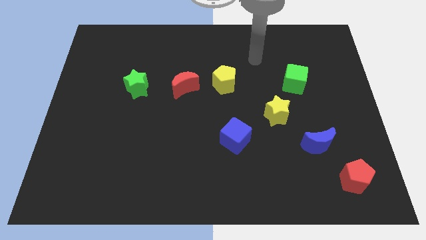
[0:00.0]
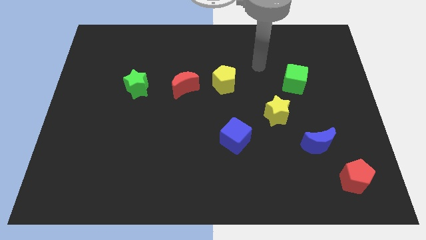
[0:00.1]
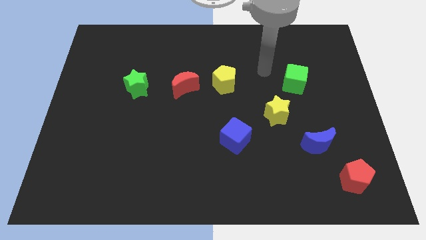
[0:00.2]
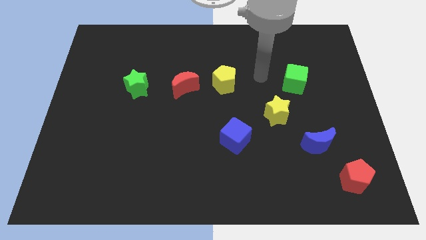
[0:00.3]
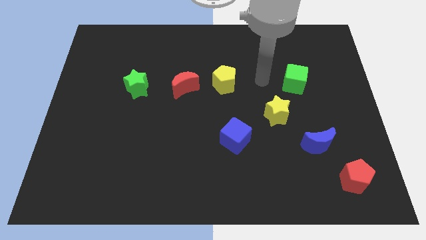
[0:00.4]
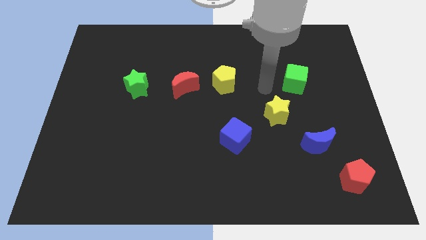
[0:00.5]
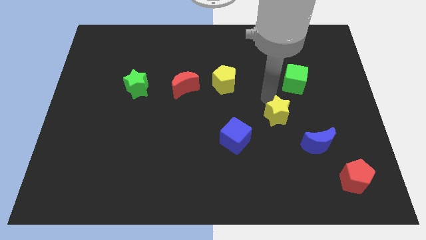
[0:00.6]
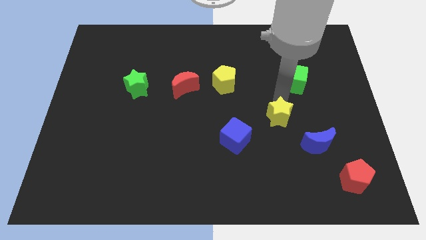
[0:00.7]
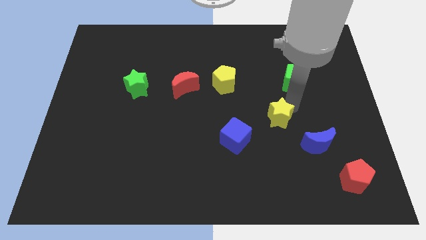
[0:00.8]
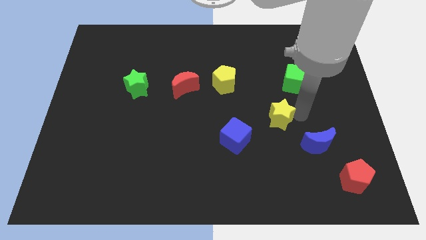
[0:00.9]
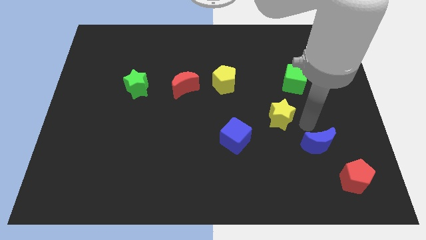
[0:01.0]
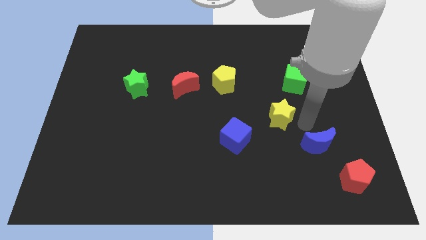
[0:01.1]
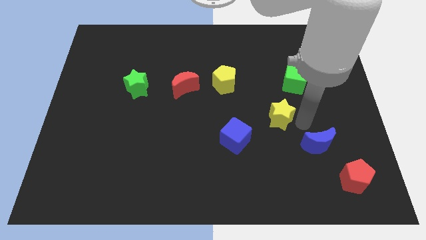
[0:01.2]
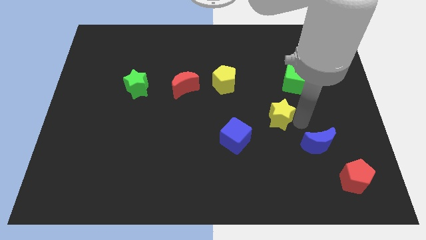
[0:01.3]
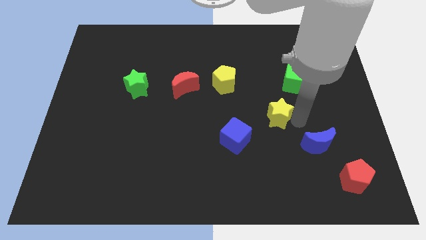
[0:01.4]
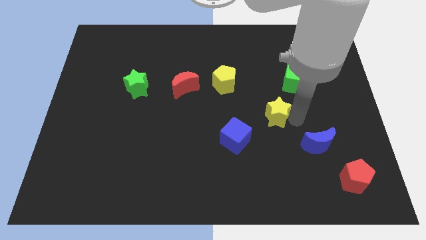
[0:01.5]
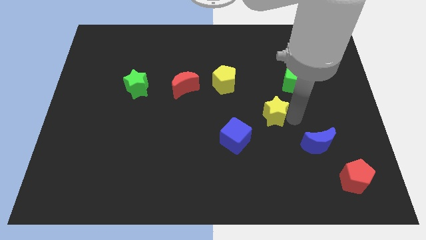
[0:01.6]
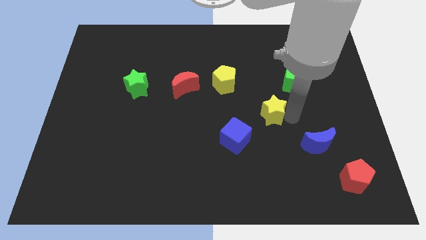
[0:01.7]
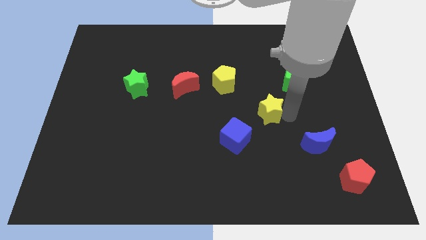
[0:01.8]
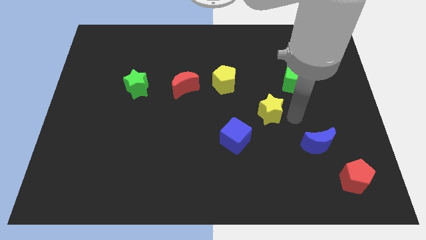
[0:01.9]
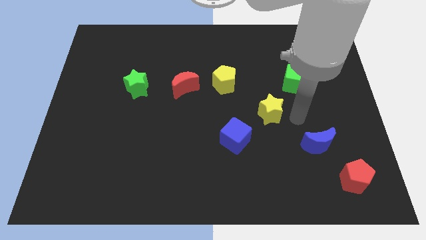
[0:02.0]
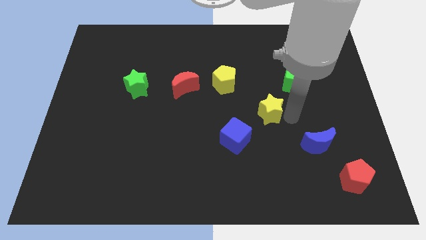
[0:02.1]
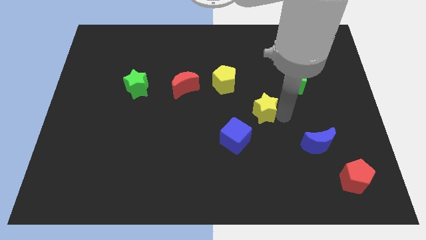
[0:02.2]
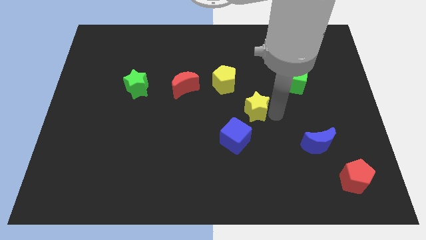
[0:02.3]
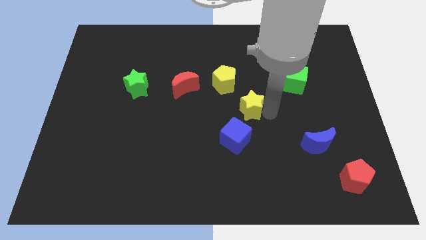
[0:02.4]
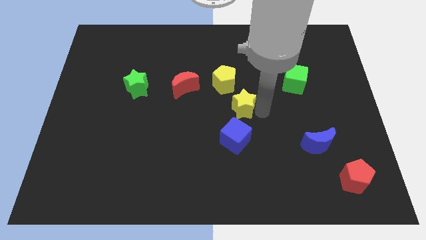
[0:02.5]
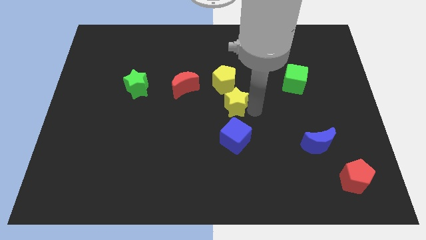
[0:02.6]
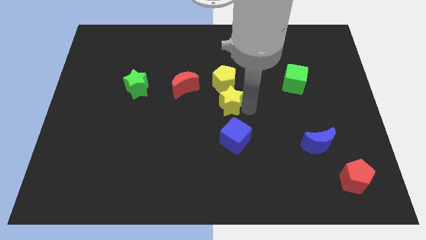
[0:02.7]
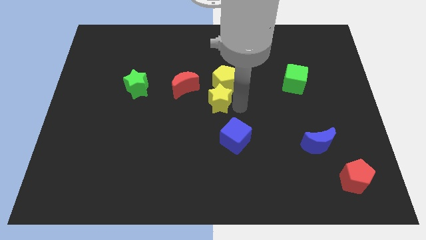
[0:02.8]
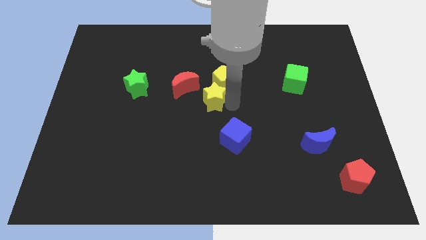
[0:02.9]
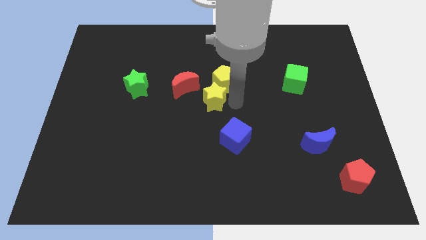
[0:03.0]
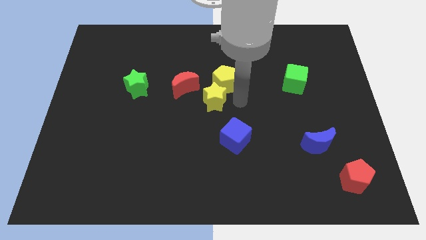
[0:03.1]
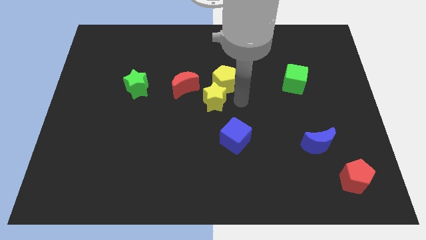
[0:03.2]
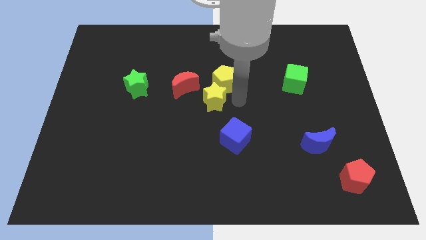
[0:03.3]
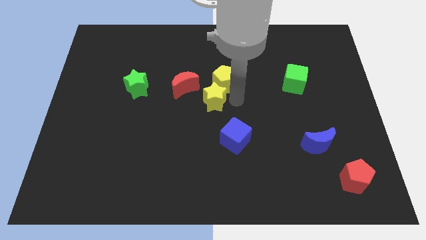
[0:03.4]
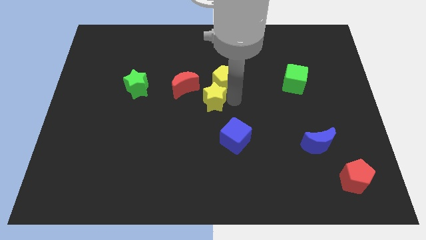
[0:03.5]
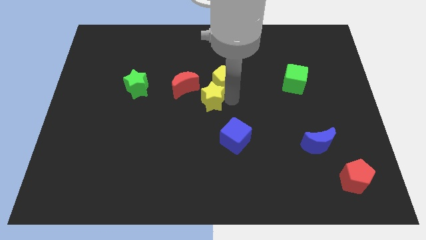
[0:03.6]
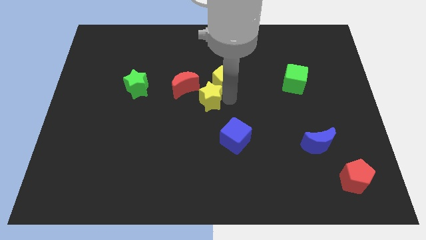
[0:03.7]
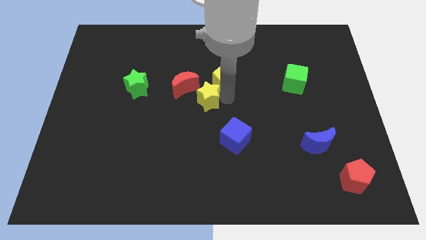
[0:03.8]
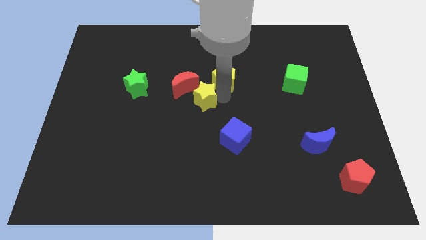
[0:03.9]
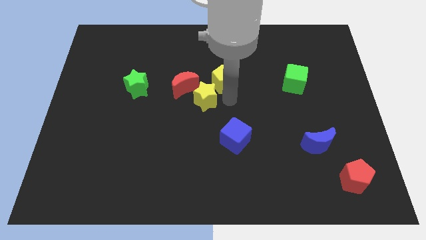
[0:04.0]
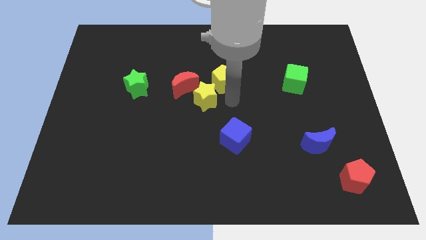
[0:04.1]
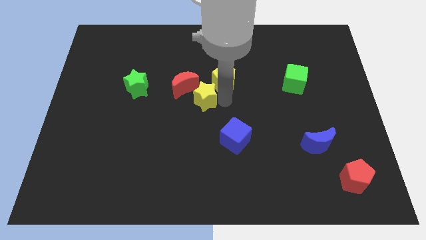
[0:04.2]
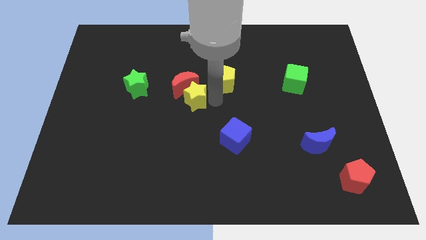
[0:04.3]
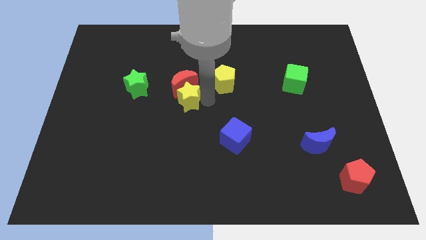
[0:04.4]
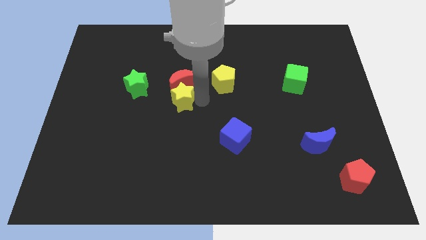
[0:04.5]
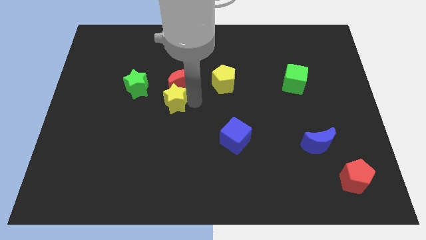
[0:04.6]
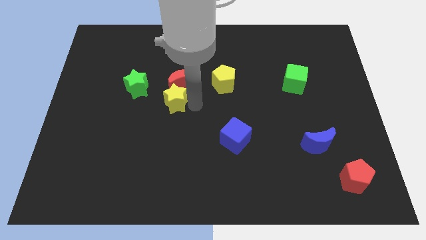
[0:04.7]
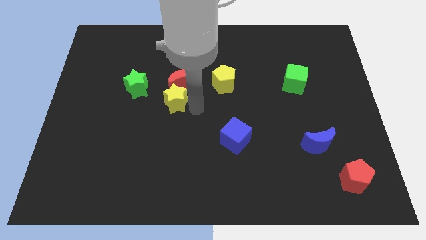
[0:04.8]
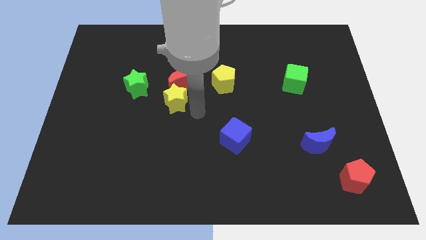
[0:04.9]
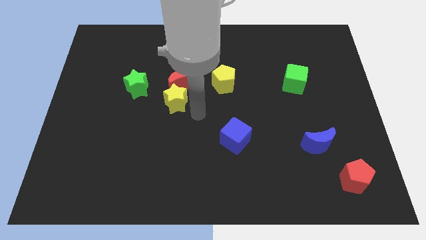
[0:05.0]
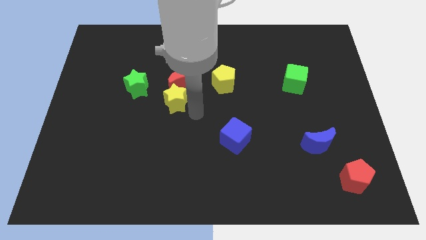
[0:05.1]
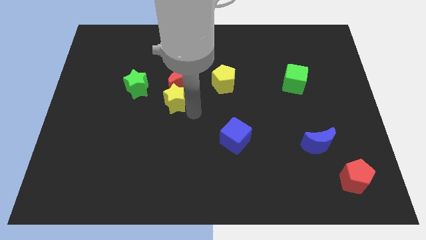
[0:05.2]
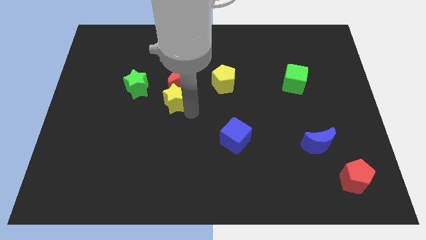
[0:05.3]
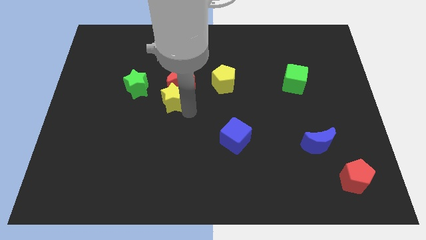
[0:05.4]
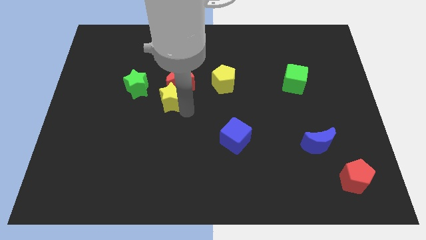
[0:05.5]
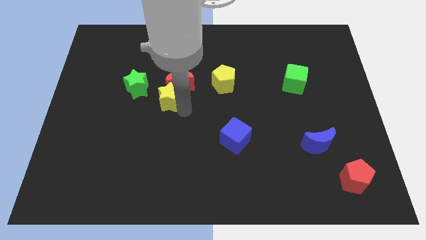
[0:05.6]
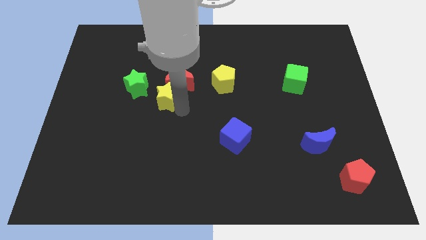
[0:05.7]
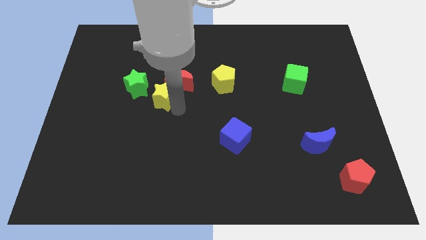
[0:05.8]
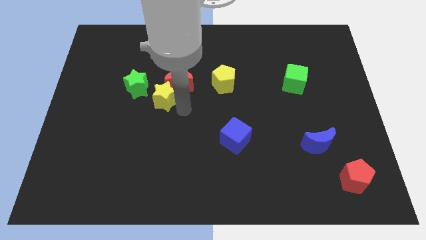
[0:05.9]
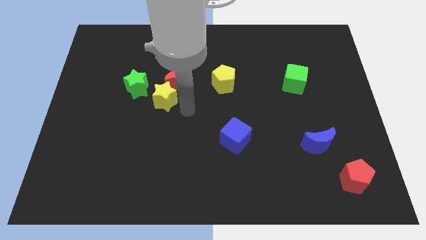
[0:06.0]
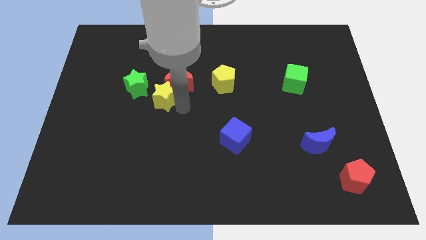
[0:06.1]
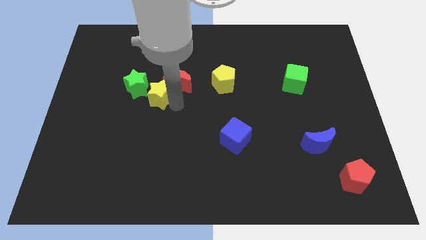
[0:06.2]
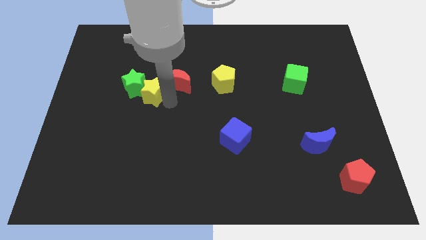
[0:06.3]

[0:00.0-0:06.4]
push the yellow star next to the green star
